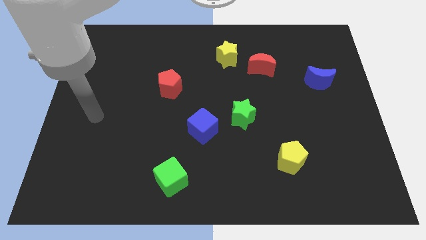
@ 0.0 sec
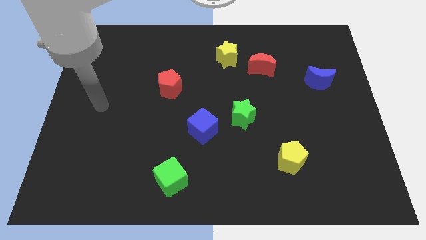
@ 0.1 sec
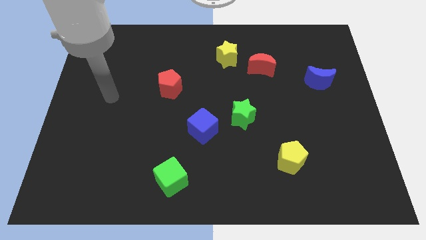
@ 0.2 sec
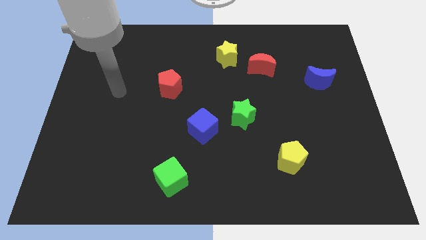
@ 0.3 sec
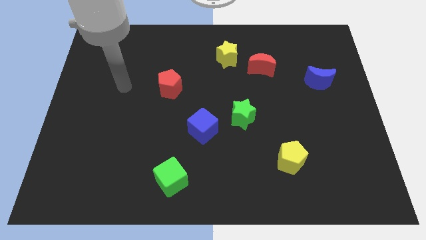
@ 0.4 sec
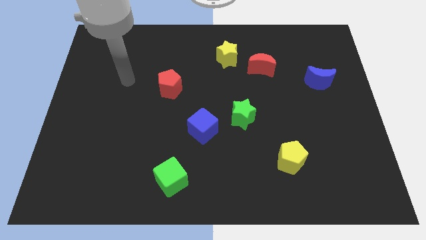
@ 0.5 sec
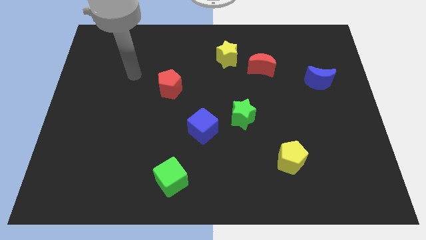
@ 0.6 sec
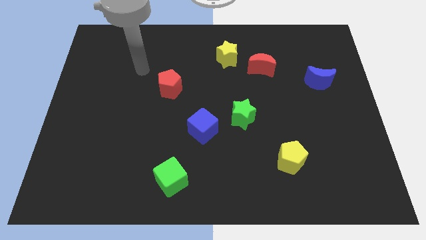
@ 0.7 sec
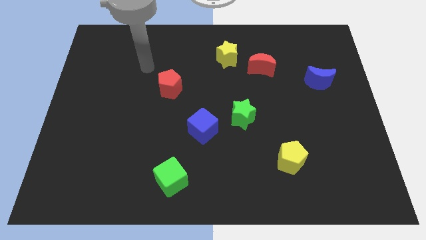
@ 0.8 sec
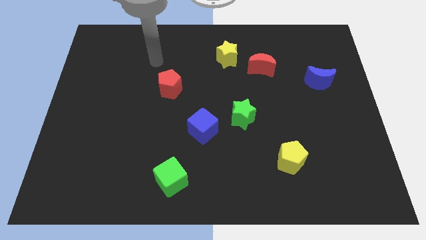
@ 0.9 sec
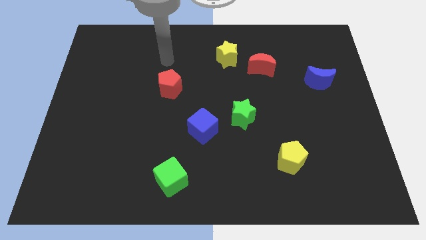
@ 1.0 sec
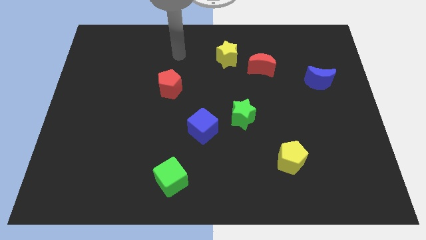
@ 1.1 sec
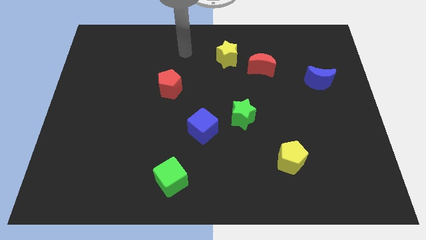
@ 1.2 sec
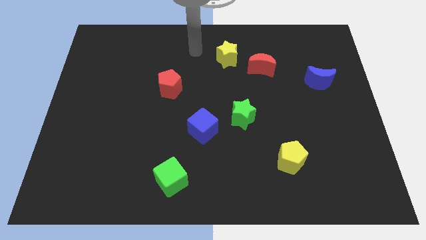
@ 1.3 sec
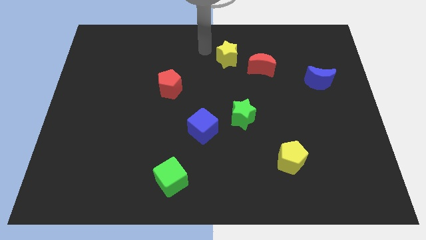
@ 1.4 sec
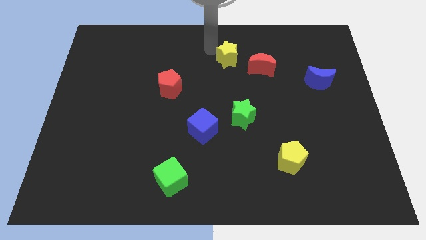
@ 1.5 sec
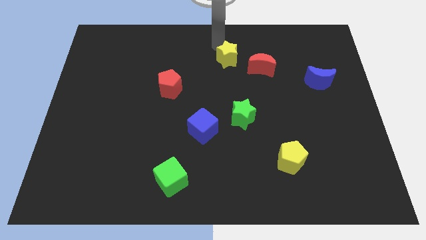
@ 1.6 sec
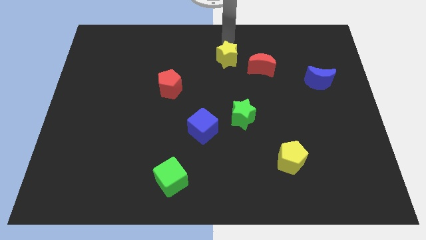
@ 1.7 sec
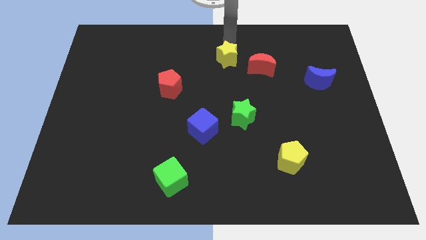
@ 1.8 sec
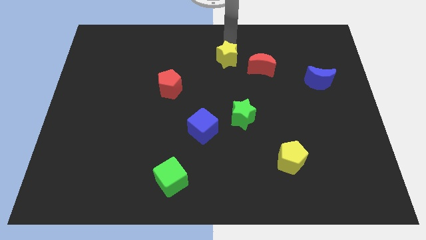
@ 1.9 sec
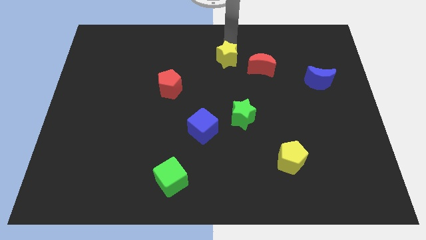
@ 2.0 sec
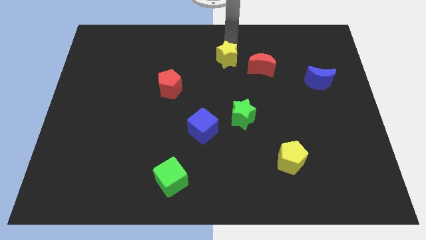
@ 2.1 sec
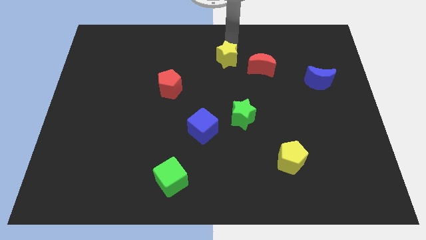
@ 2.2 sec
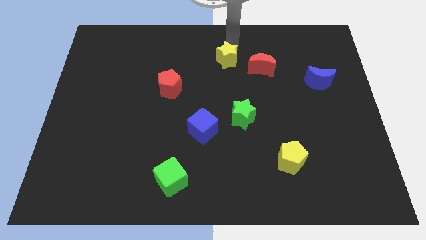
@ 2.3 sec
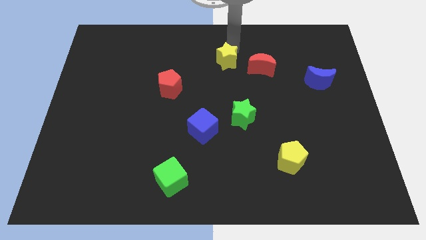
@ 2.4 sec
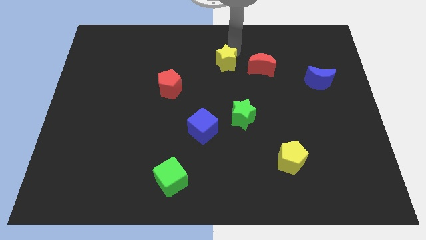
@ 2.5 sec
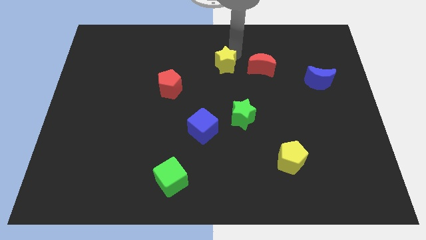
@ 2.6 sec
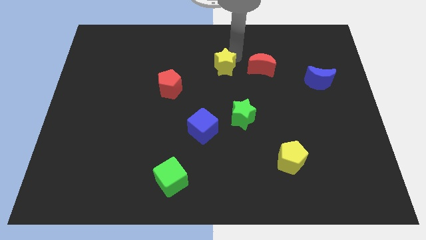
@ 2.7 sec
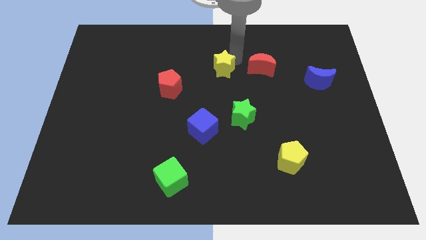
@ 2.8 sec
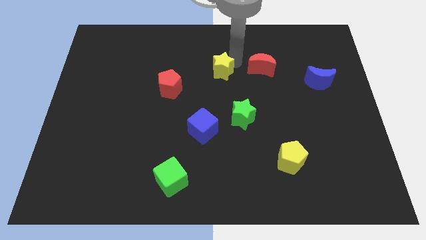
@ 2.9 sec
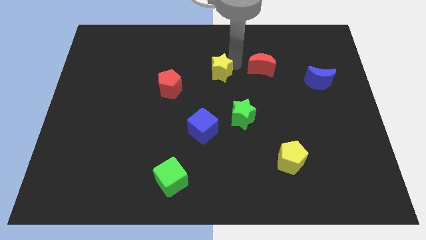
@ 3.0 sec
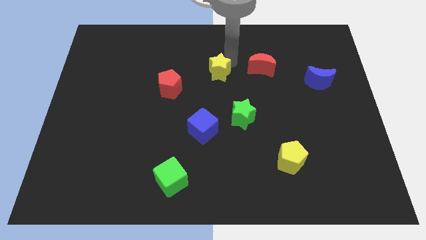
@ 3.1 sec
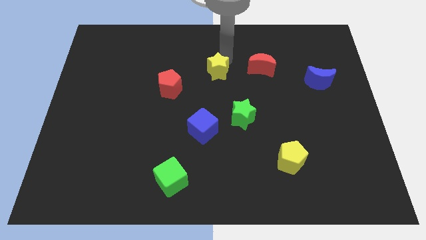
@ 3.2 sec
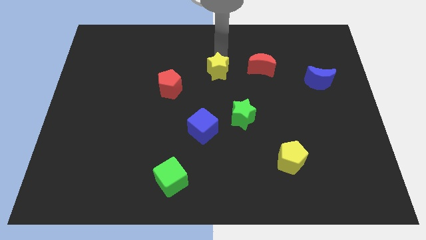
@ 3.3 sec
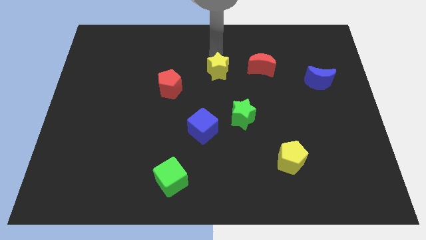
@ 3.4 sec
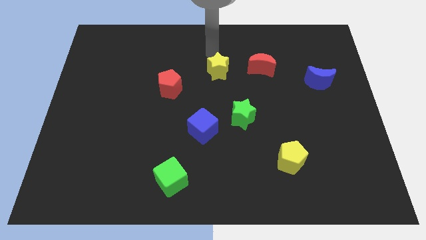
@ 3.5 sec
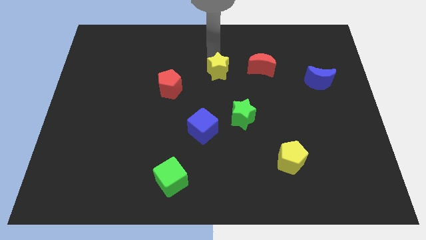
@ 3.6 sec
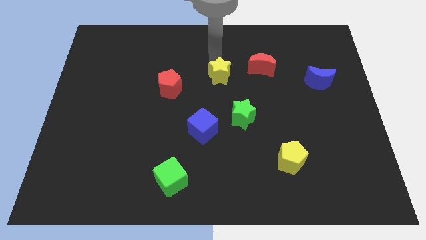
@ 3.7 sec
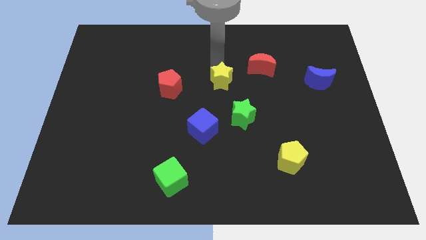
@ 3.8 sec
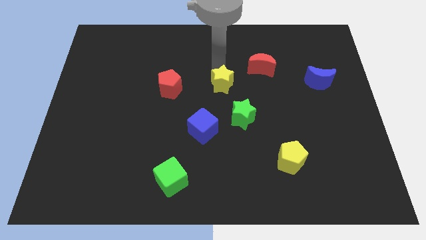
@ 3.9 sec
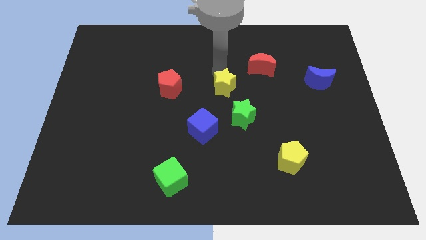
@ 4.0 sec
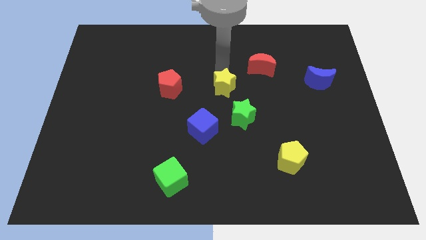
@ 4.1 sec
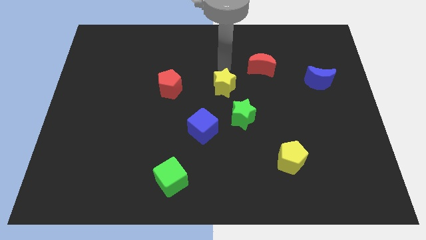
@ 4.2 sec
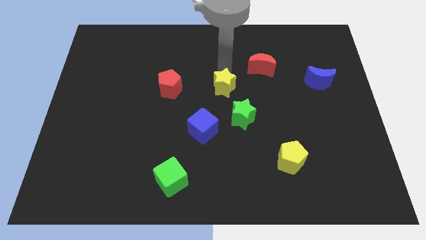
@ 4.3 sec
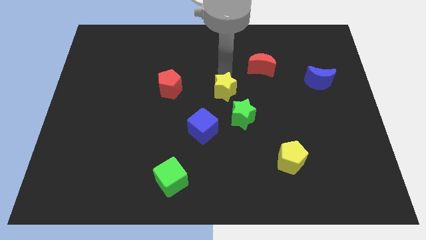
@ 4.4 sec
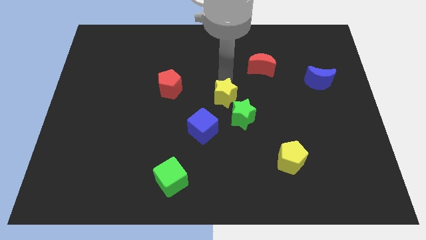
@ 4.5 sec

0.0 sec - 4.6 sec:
slide the yellow star to the top right side of the blue cube

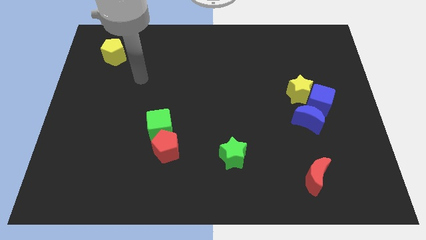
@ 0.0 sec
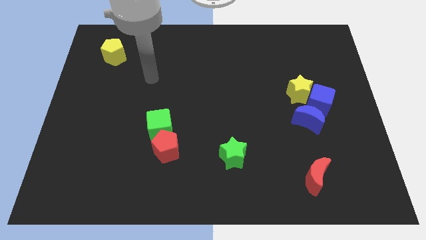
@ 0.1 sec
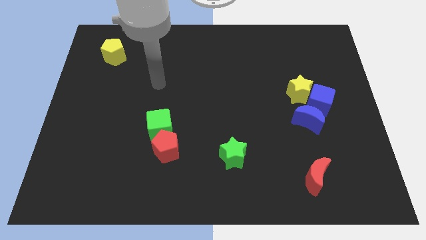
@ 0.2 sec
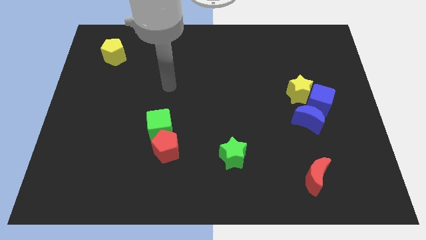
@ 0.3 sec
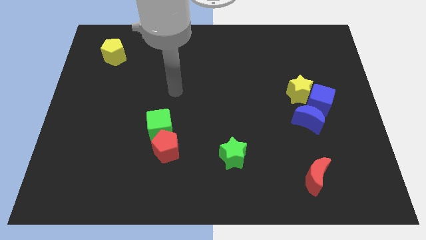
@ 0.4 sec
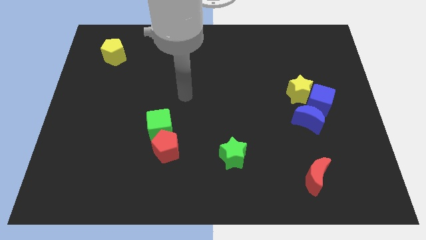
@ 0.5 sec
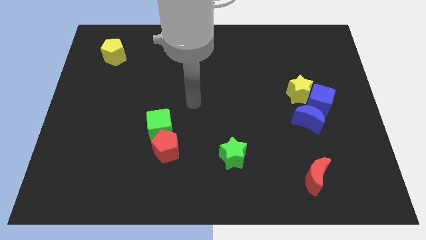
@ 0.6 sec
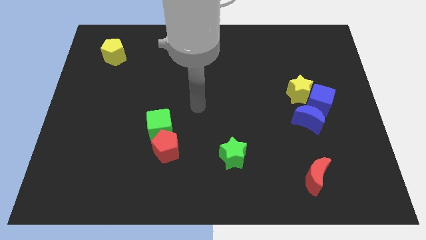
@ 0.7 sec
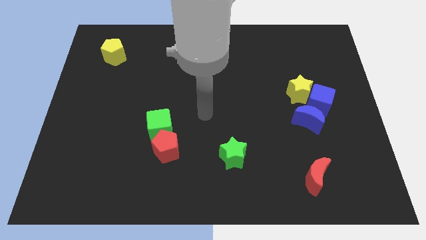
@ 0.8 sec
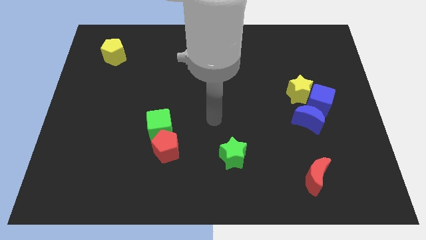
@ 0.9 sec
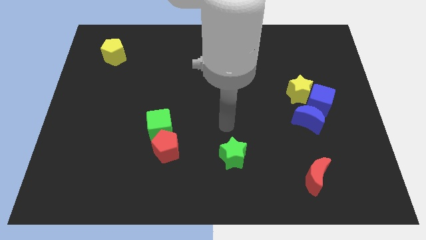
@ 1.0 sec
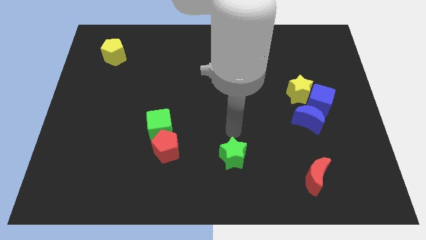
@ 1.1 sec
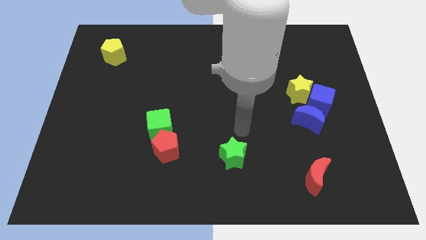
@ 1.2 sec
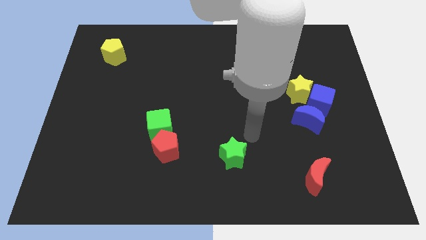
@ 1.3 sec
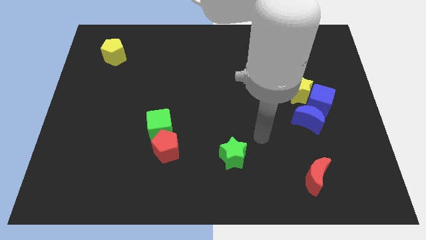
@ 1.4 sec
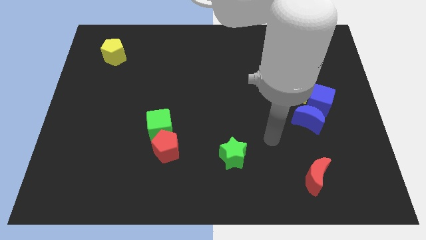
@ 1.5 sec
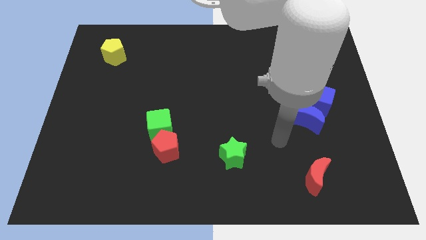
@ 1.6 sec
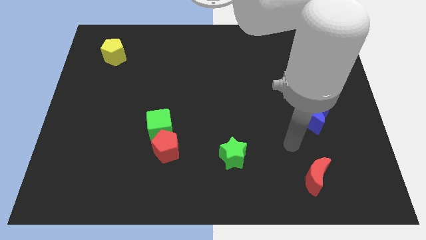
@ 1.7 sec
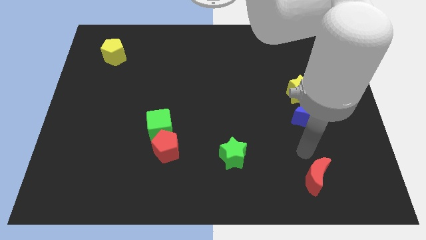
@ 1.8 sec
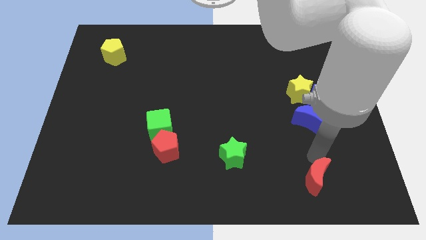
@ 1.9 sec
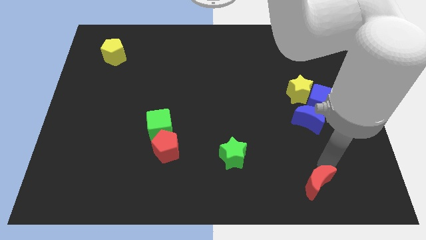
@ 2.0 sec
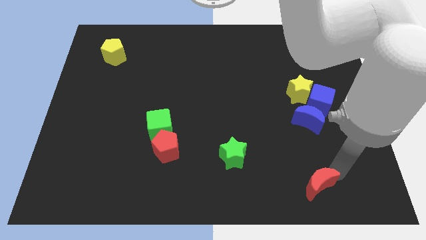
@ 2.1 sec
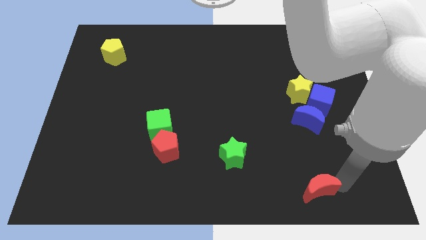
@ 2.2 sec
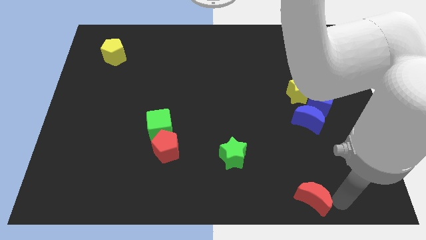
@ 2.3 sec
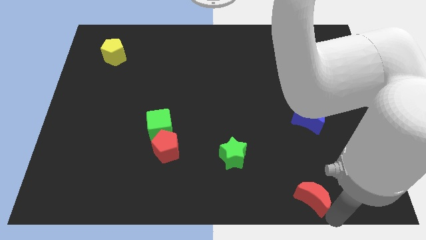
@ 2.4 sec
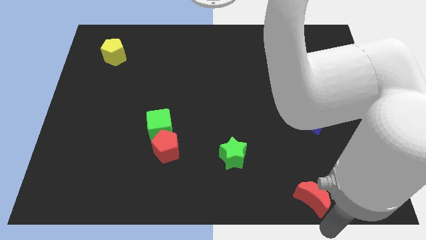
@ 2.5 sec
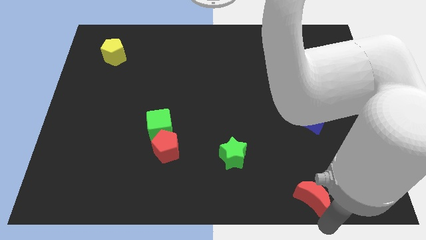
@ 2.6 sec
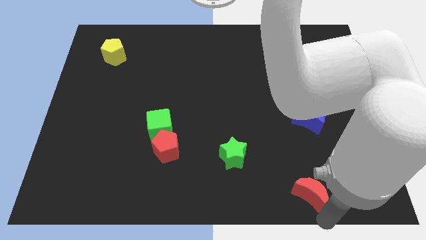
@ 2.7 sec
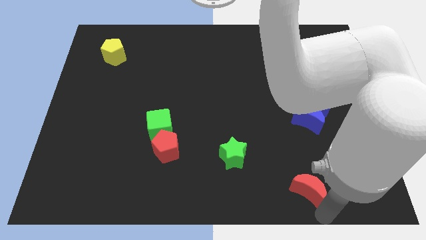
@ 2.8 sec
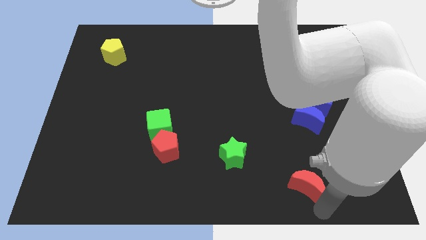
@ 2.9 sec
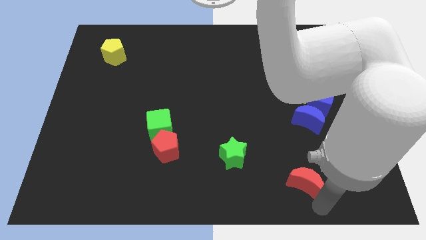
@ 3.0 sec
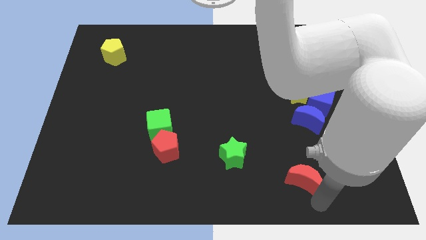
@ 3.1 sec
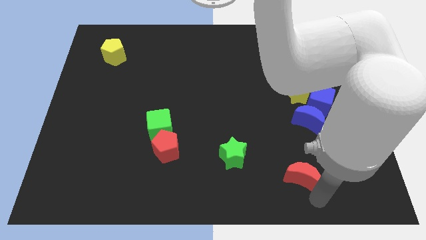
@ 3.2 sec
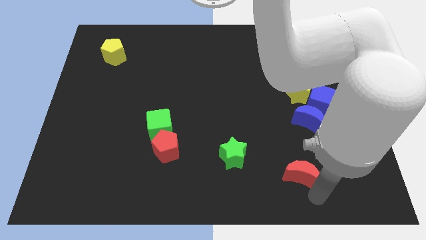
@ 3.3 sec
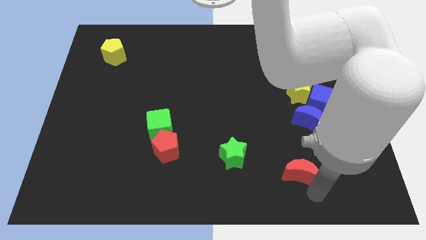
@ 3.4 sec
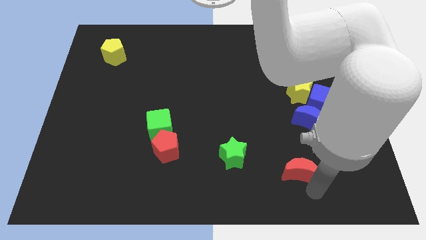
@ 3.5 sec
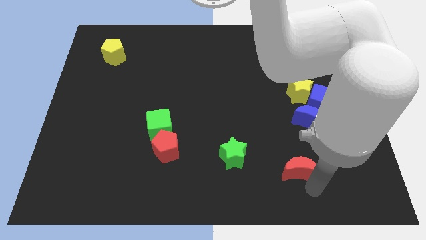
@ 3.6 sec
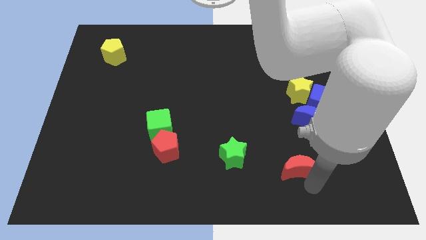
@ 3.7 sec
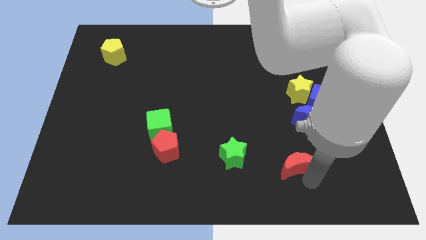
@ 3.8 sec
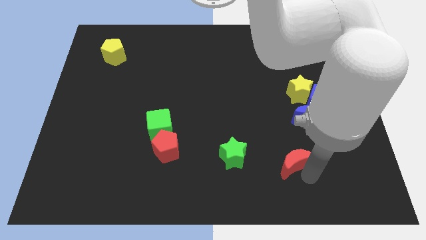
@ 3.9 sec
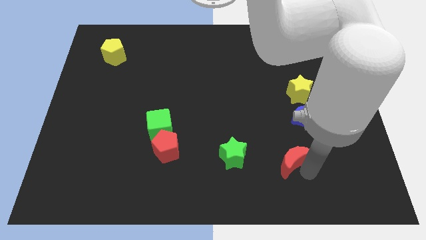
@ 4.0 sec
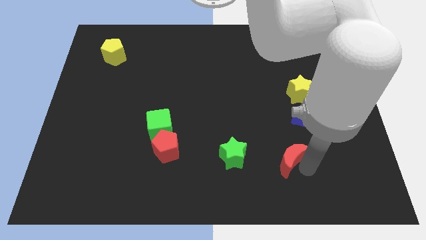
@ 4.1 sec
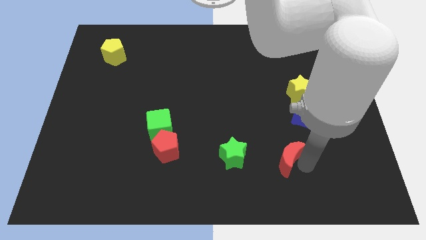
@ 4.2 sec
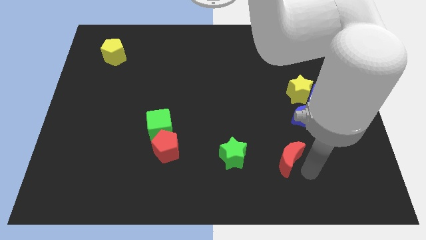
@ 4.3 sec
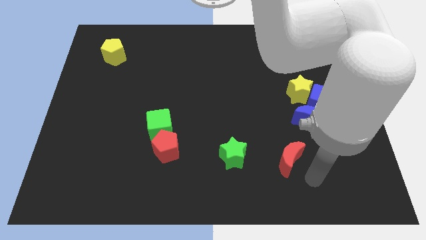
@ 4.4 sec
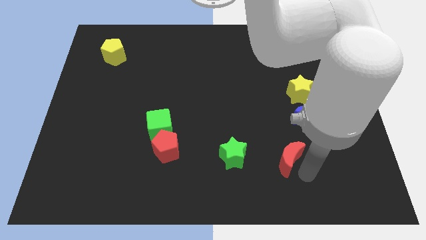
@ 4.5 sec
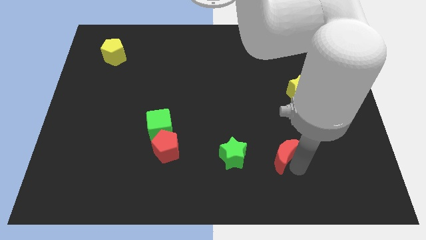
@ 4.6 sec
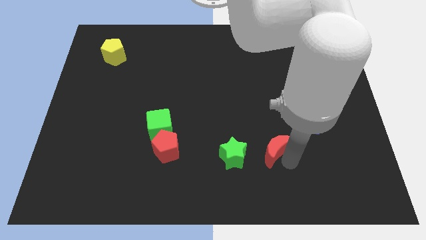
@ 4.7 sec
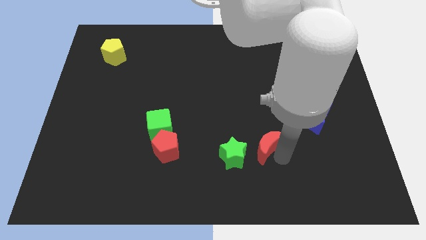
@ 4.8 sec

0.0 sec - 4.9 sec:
move the red moon diagonally up and to the right of the green star
